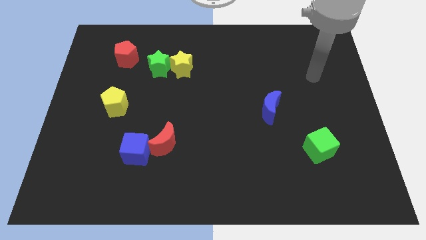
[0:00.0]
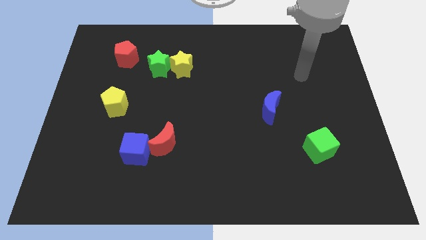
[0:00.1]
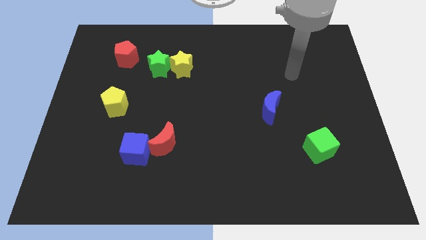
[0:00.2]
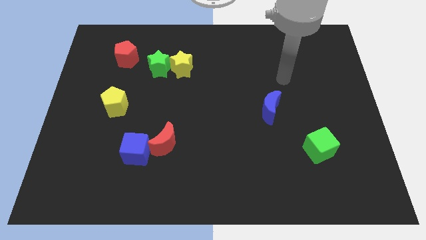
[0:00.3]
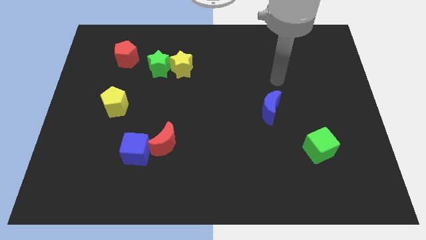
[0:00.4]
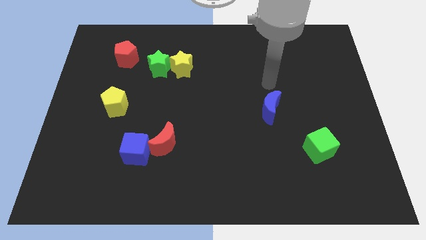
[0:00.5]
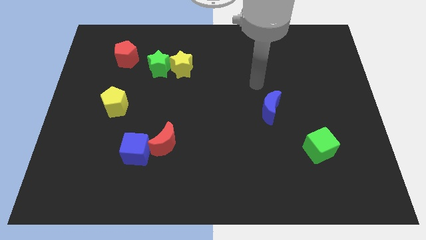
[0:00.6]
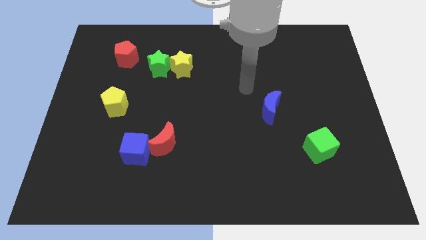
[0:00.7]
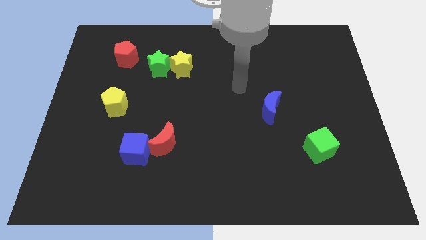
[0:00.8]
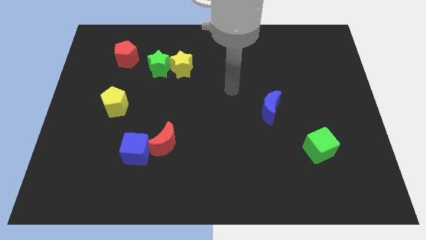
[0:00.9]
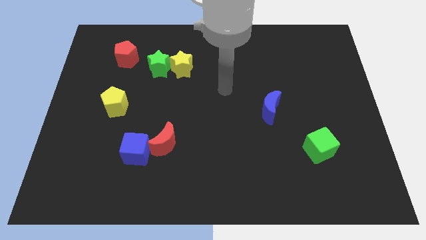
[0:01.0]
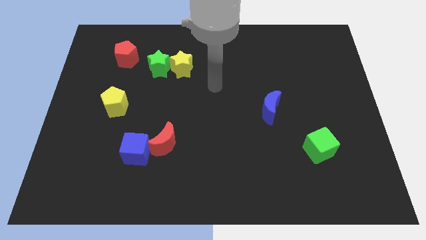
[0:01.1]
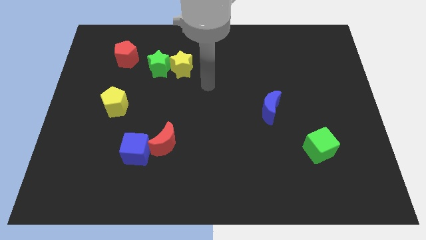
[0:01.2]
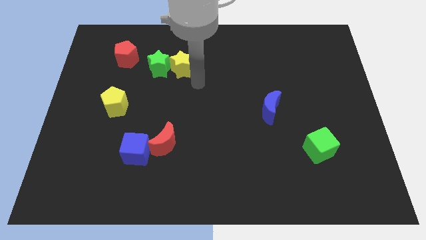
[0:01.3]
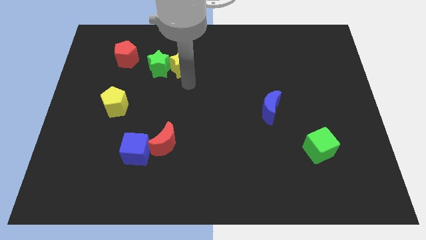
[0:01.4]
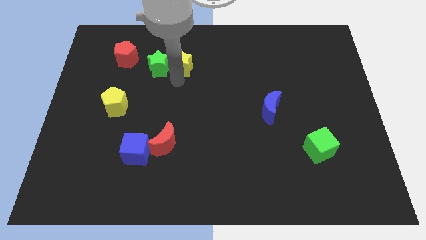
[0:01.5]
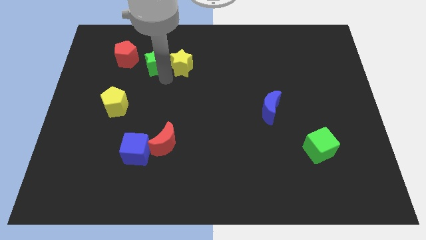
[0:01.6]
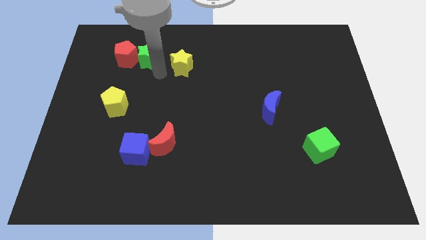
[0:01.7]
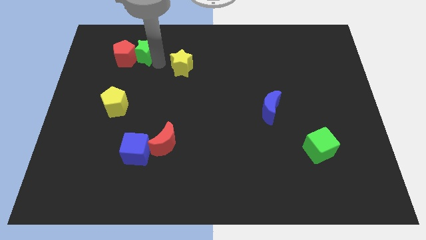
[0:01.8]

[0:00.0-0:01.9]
move the yellow star away from the green star

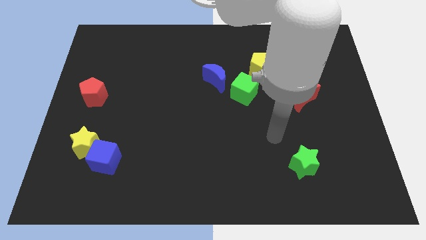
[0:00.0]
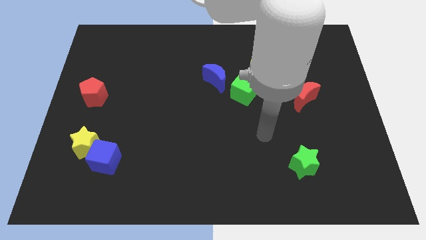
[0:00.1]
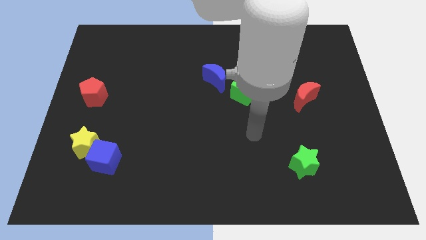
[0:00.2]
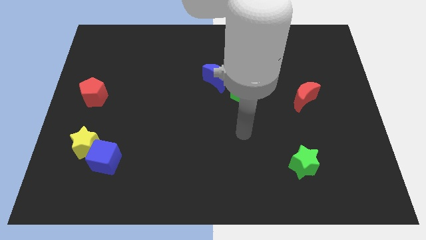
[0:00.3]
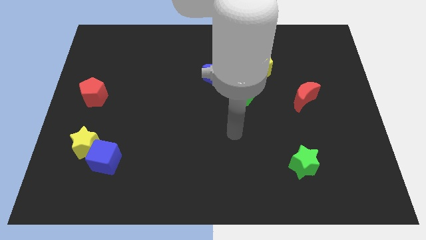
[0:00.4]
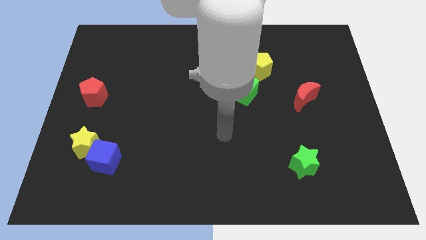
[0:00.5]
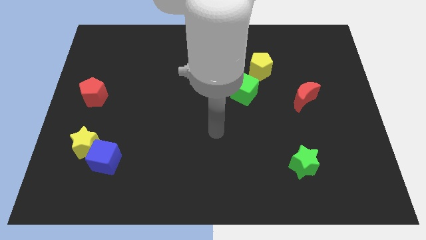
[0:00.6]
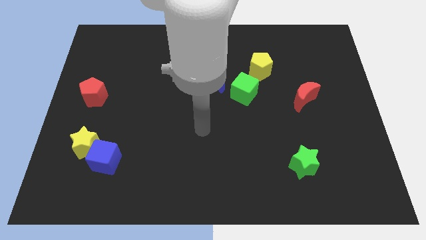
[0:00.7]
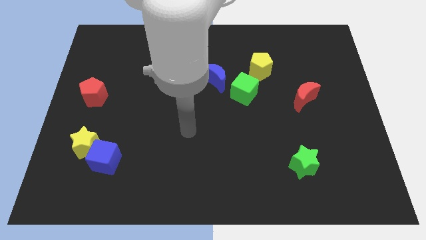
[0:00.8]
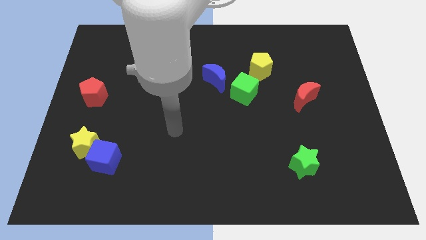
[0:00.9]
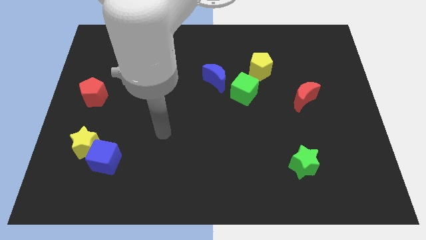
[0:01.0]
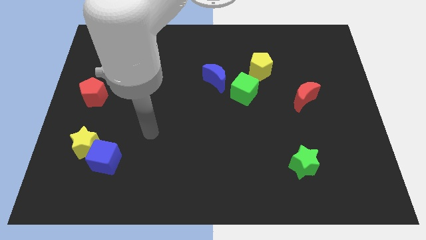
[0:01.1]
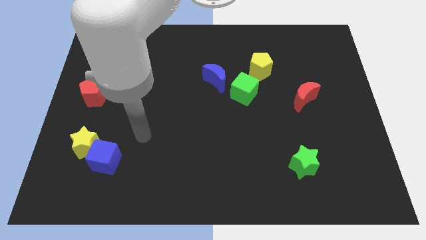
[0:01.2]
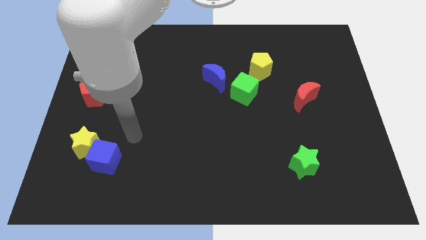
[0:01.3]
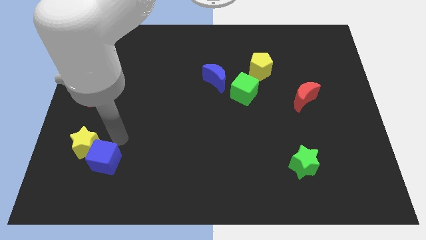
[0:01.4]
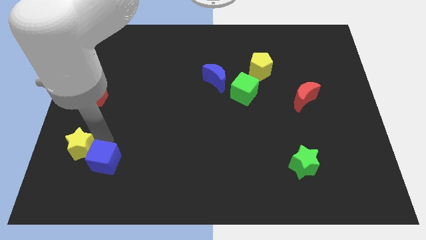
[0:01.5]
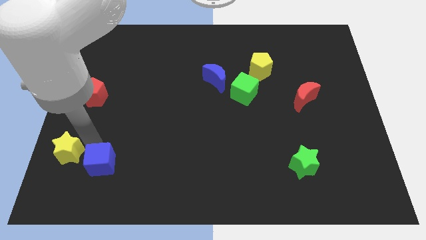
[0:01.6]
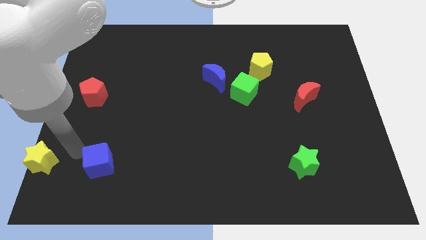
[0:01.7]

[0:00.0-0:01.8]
move the blue cube away from the yellow star

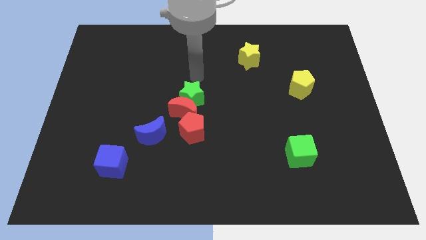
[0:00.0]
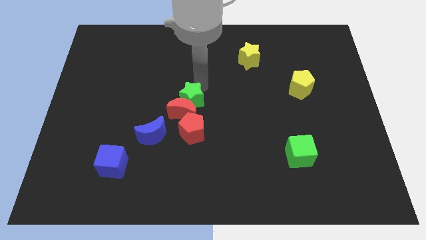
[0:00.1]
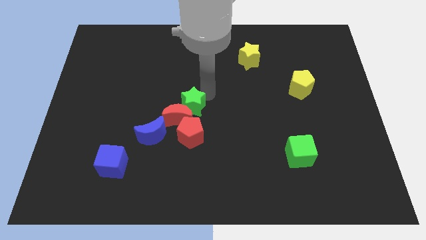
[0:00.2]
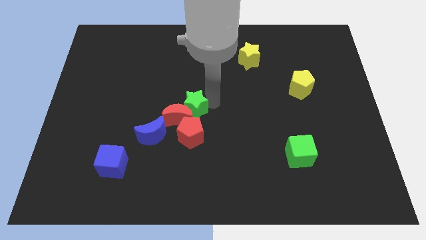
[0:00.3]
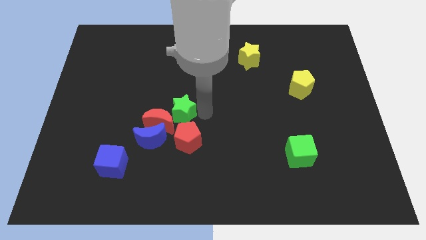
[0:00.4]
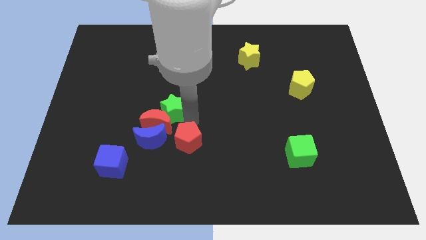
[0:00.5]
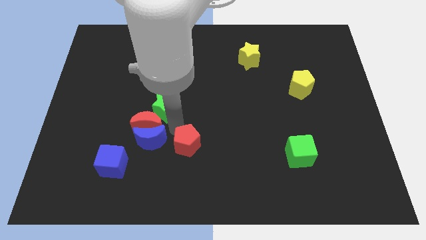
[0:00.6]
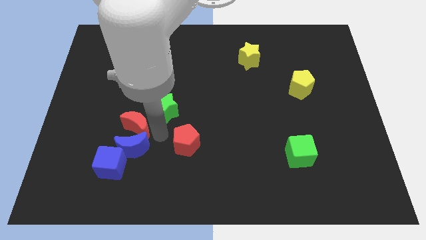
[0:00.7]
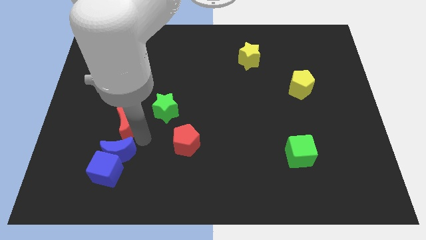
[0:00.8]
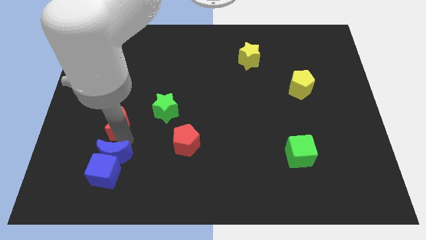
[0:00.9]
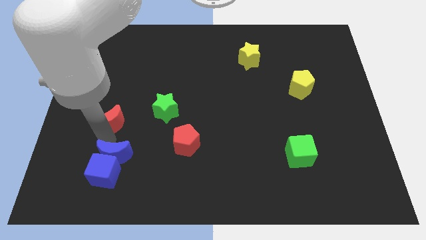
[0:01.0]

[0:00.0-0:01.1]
separate the red moon from the green star, red pentagon, and blue moon

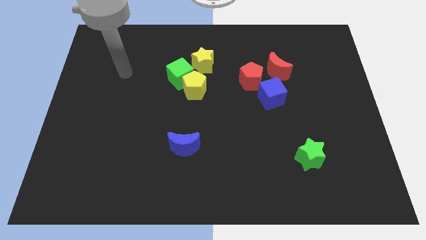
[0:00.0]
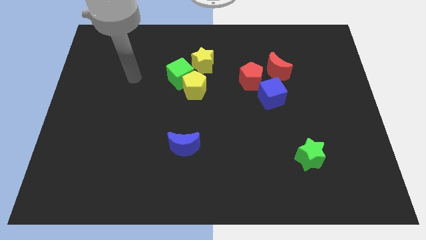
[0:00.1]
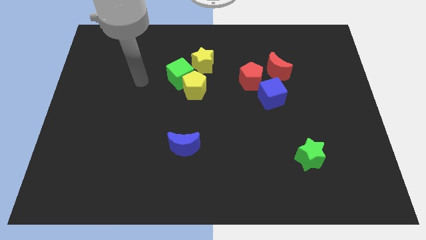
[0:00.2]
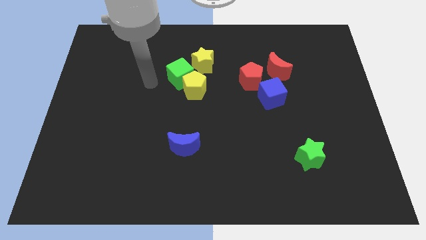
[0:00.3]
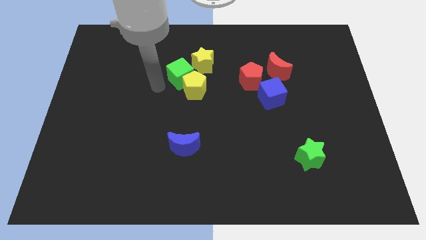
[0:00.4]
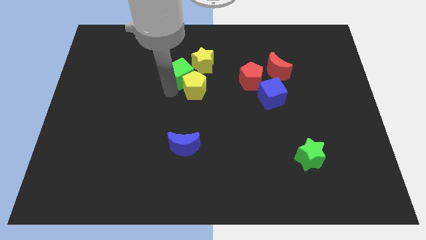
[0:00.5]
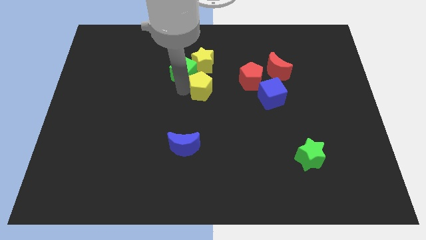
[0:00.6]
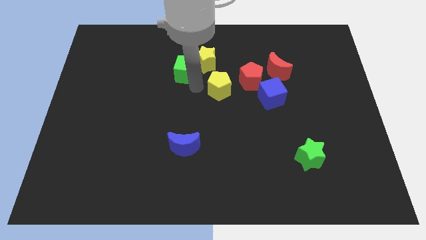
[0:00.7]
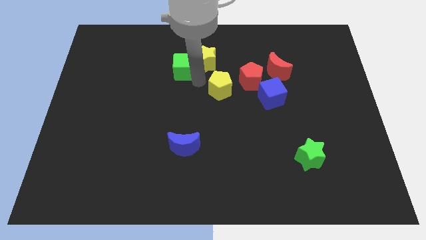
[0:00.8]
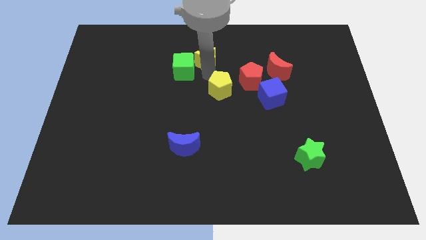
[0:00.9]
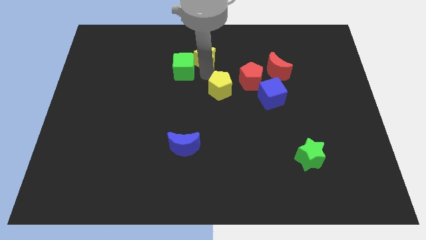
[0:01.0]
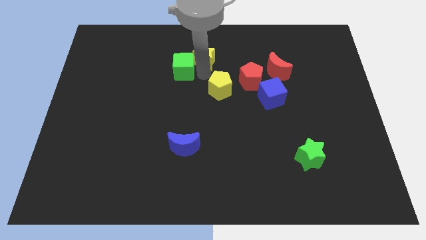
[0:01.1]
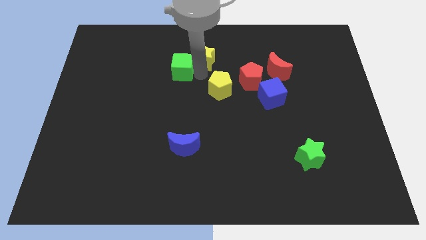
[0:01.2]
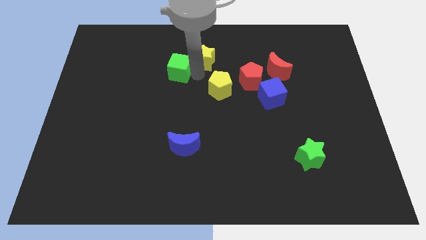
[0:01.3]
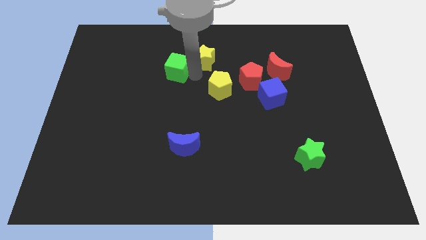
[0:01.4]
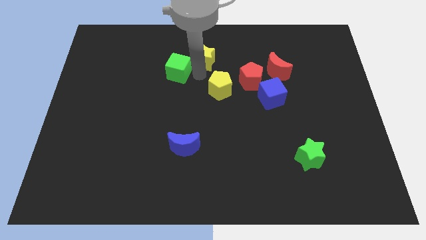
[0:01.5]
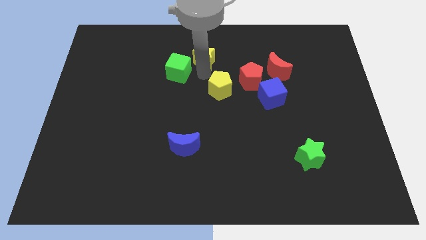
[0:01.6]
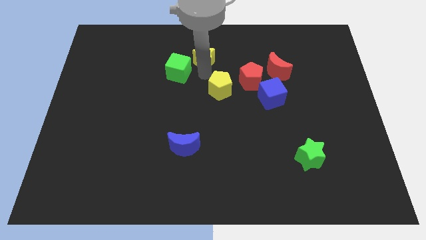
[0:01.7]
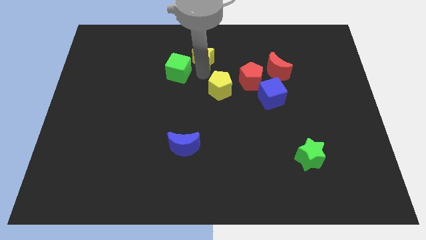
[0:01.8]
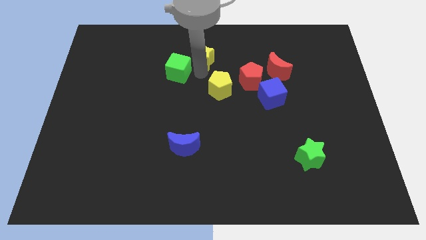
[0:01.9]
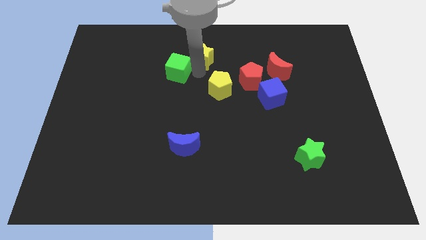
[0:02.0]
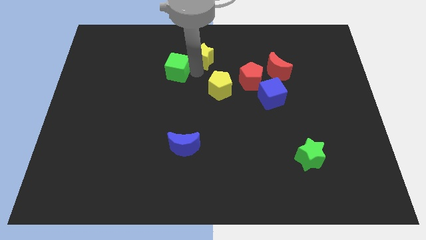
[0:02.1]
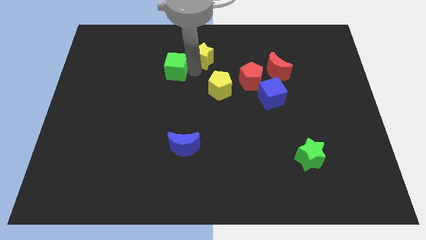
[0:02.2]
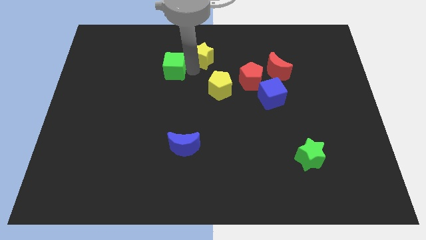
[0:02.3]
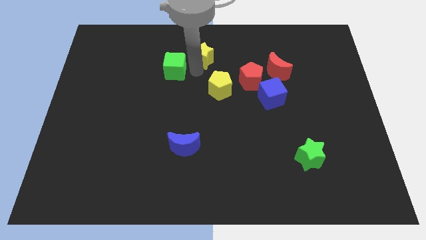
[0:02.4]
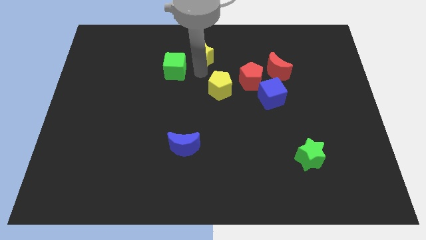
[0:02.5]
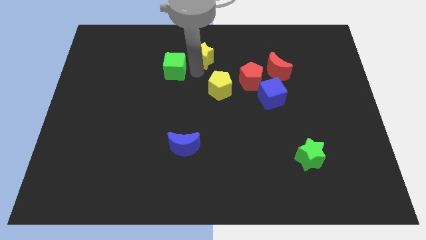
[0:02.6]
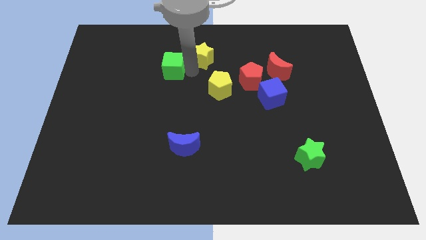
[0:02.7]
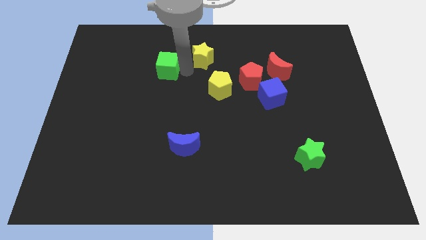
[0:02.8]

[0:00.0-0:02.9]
pull the green cube apart from the yellow pentagon and yellow star

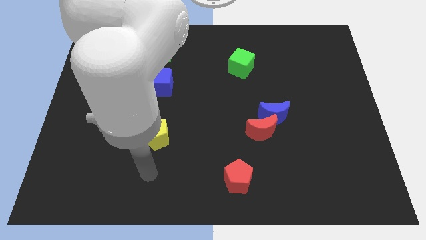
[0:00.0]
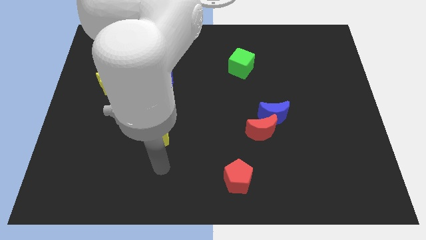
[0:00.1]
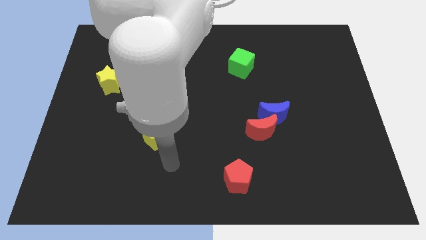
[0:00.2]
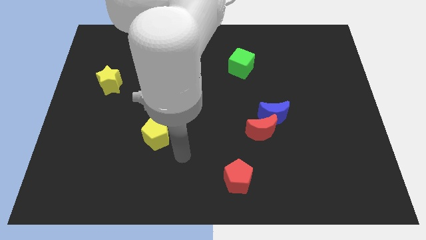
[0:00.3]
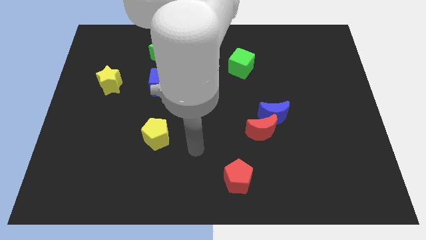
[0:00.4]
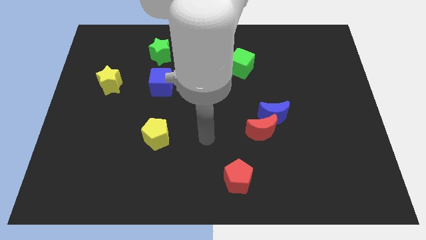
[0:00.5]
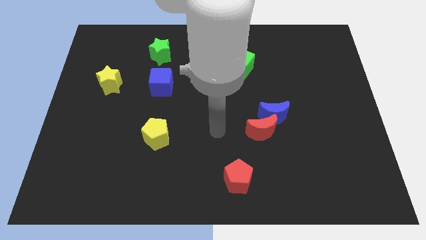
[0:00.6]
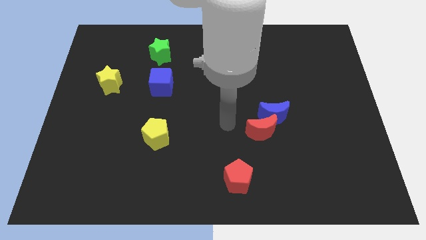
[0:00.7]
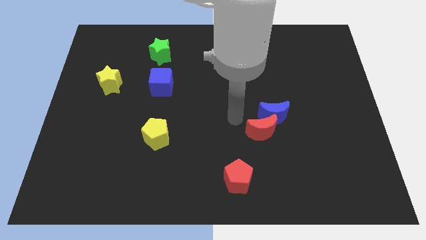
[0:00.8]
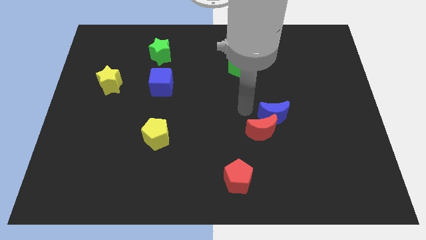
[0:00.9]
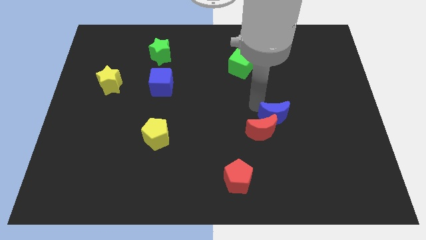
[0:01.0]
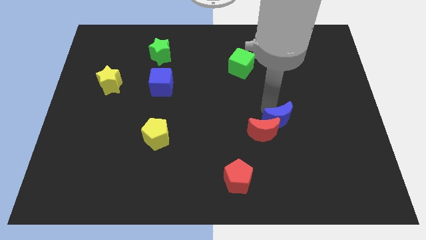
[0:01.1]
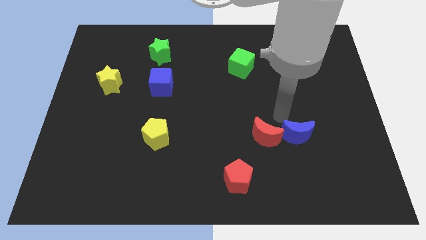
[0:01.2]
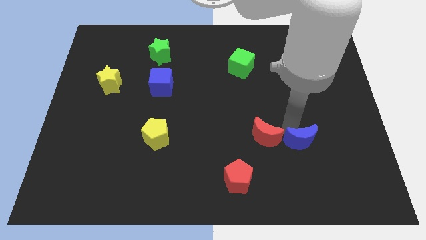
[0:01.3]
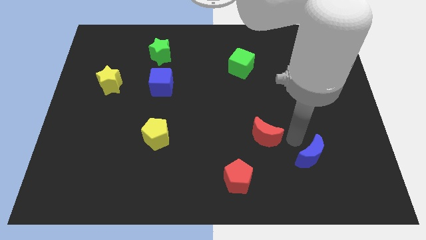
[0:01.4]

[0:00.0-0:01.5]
move the red moon away from the blue moon

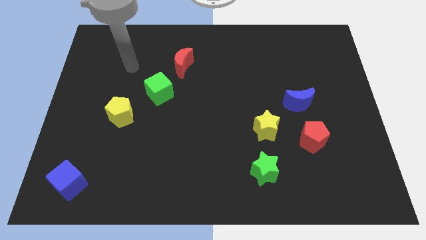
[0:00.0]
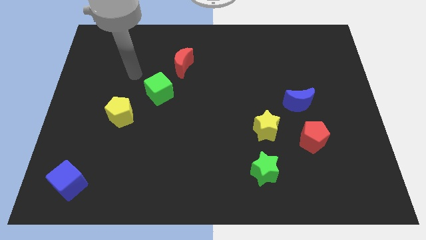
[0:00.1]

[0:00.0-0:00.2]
separate the blue moon from the red pentagon
